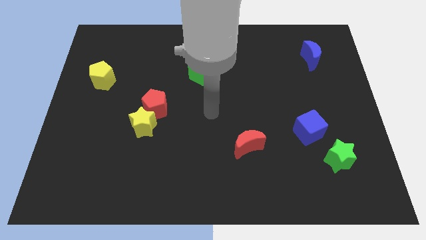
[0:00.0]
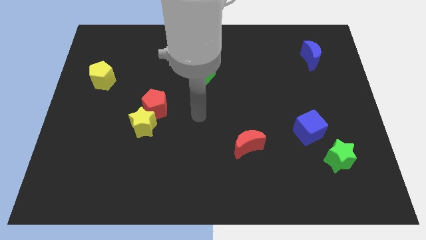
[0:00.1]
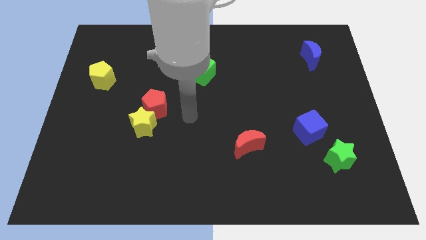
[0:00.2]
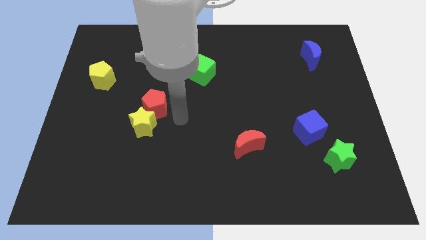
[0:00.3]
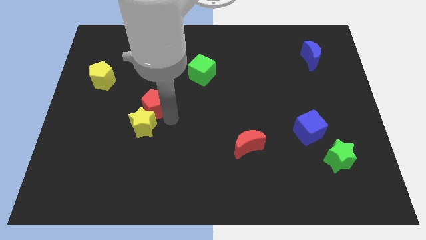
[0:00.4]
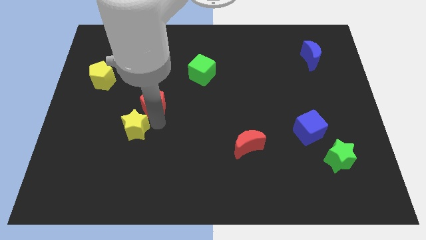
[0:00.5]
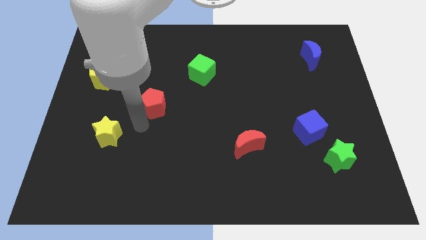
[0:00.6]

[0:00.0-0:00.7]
pull the red pentagon apart from the yellow star

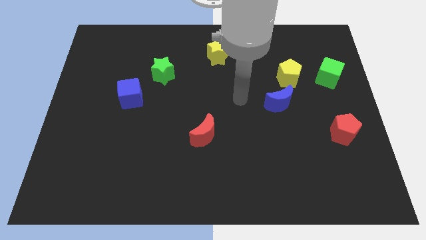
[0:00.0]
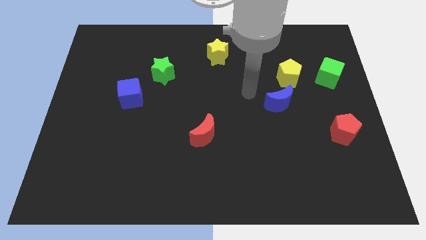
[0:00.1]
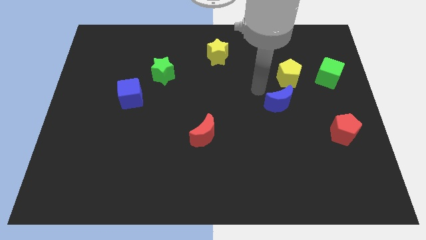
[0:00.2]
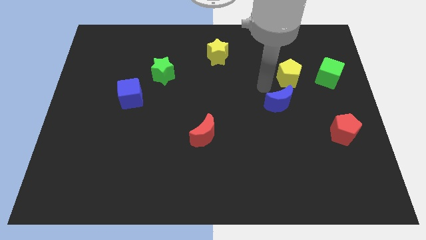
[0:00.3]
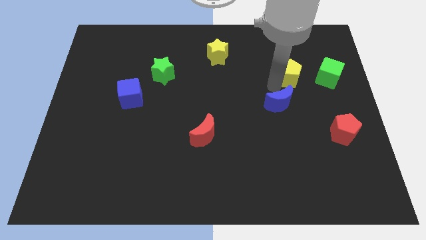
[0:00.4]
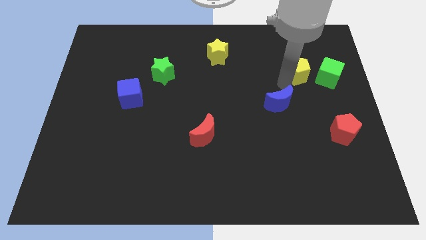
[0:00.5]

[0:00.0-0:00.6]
pull the blue moon apart from the yellow pentagon

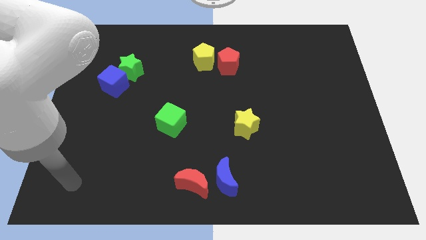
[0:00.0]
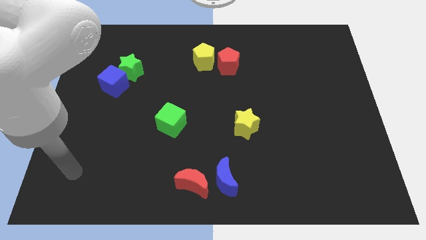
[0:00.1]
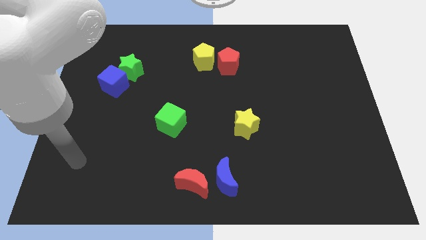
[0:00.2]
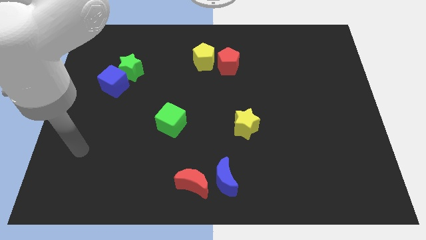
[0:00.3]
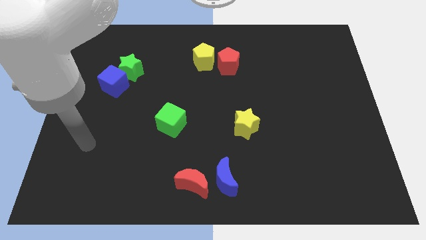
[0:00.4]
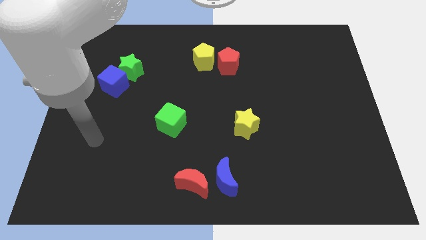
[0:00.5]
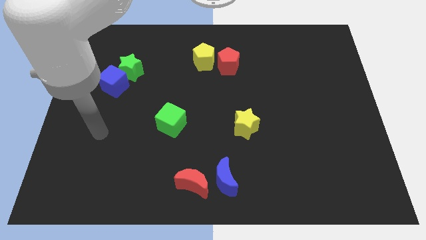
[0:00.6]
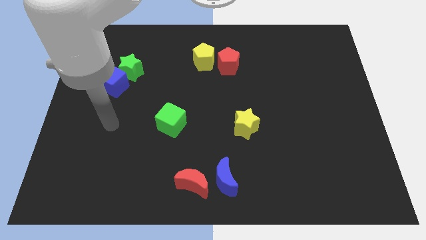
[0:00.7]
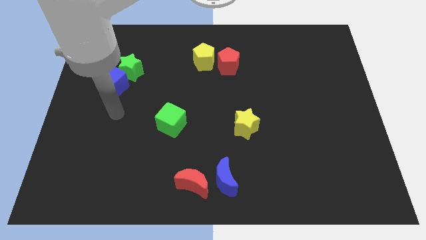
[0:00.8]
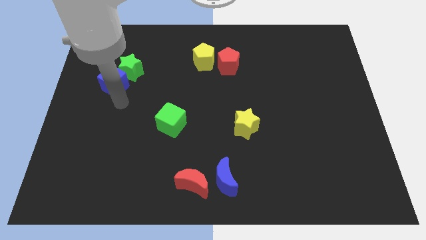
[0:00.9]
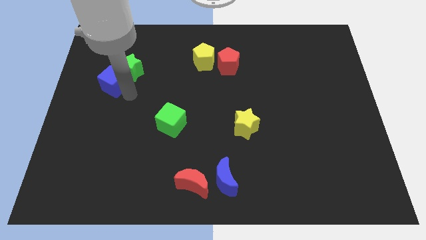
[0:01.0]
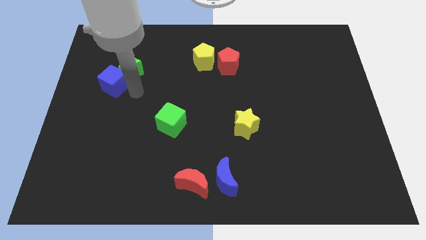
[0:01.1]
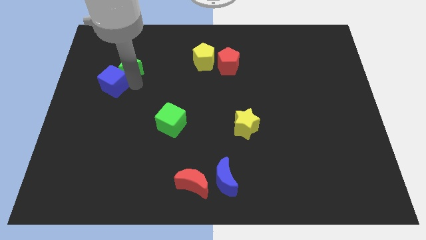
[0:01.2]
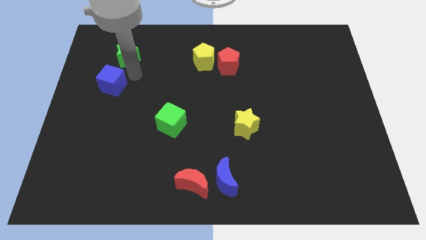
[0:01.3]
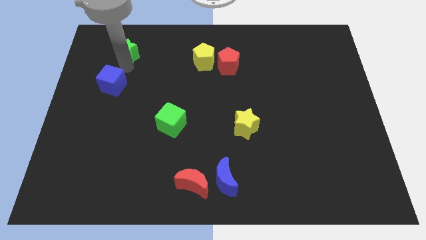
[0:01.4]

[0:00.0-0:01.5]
pull the blue cube apart from the green star

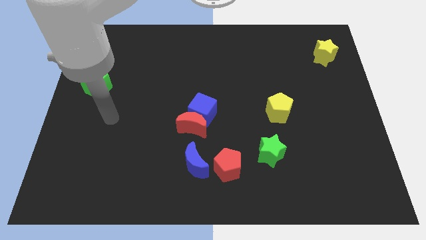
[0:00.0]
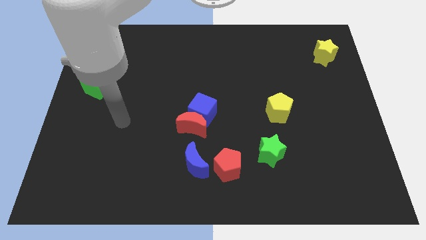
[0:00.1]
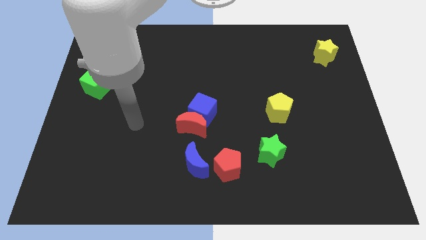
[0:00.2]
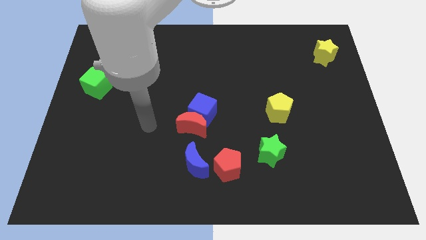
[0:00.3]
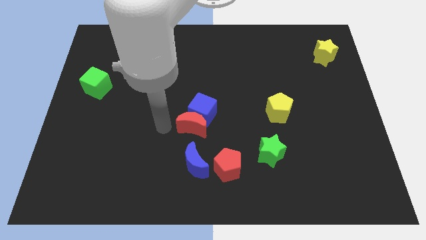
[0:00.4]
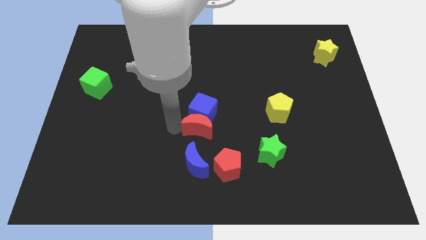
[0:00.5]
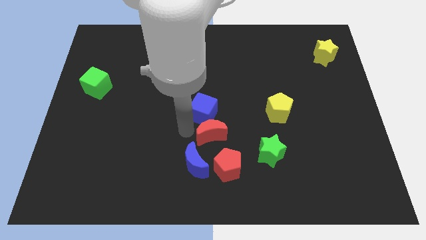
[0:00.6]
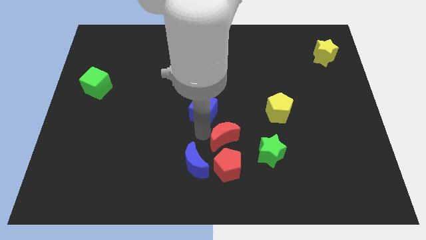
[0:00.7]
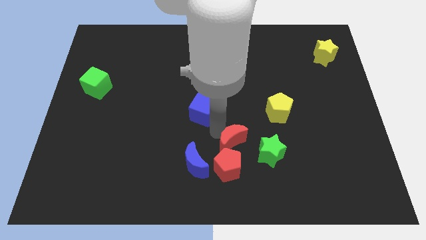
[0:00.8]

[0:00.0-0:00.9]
separate the blue cube from the red moon

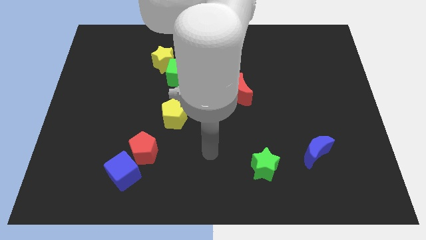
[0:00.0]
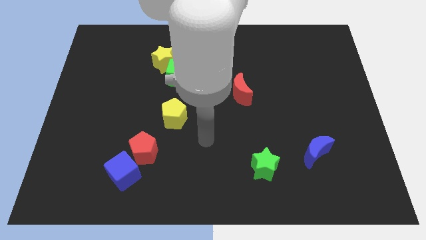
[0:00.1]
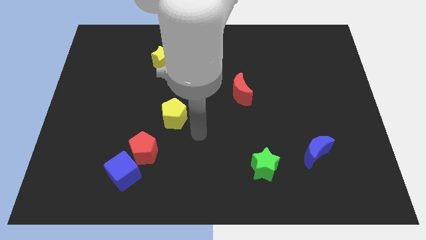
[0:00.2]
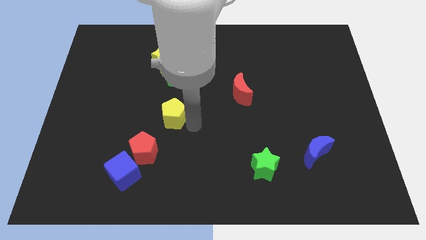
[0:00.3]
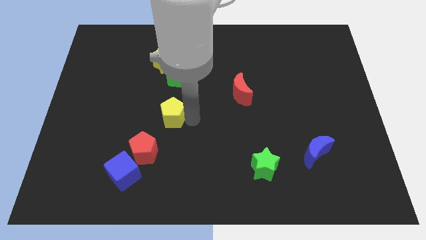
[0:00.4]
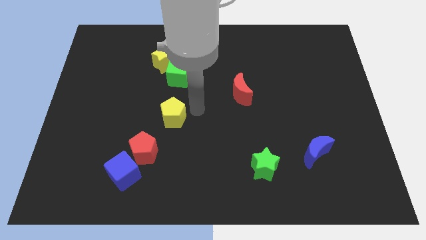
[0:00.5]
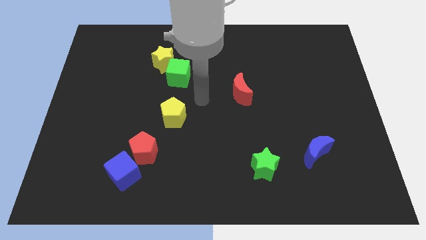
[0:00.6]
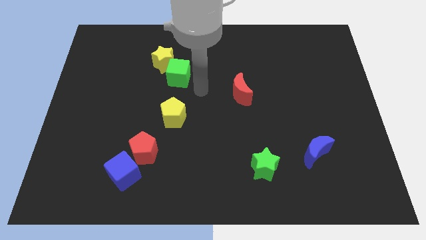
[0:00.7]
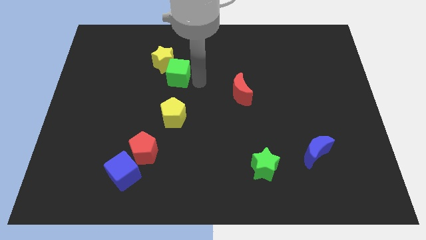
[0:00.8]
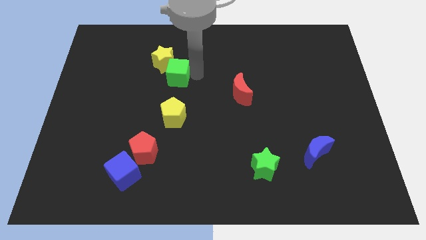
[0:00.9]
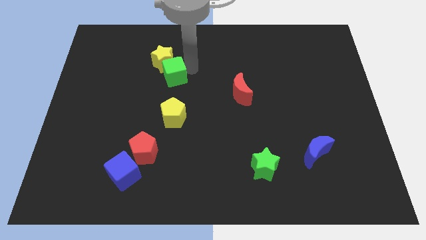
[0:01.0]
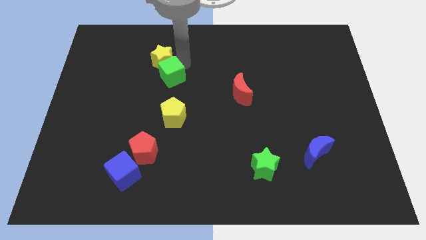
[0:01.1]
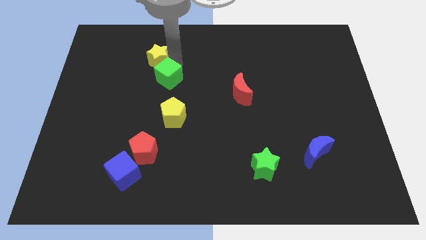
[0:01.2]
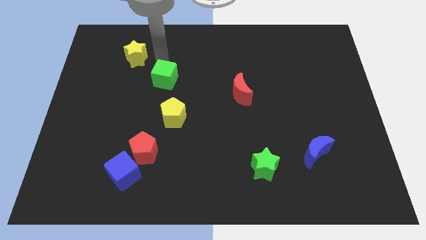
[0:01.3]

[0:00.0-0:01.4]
pull the green cube apart from the yellow star

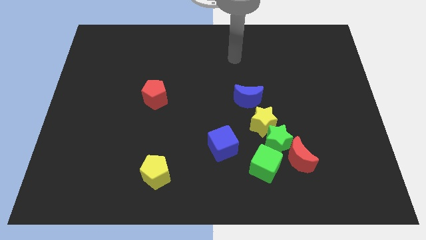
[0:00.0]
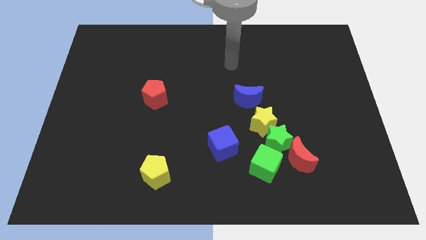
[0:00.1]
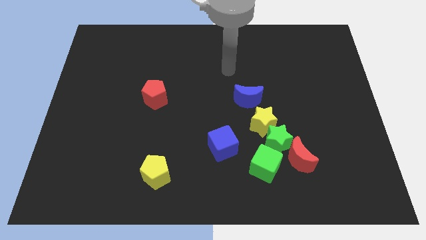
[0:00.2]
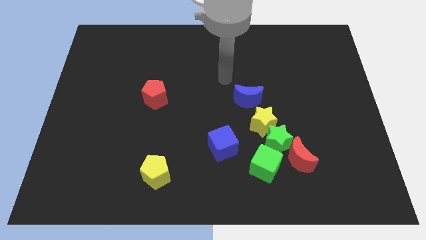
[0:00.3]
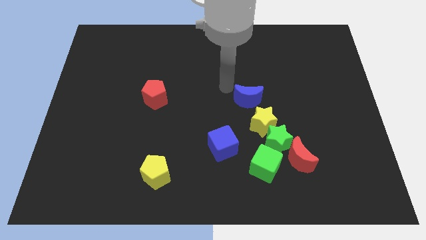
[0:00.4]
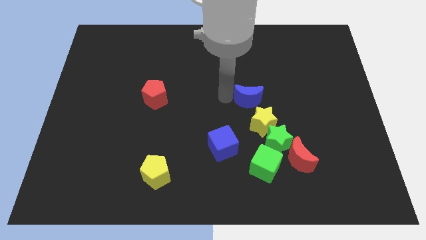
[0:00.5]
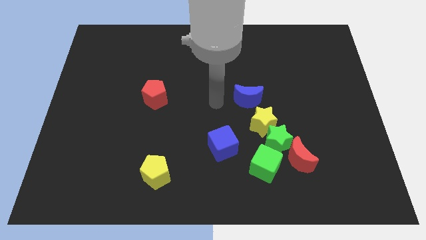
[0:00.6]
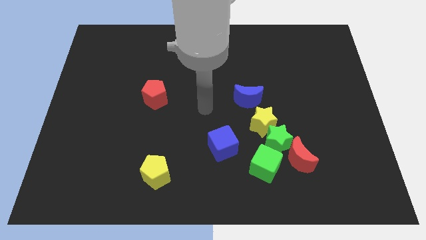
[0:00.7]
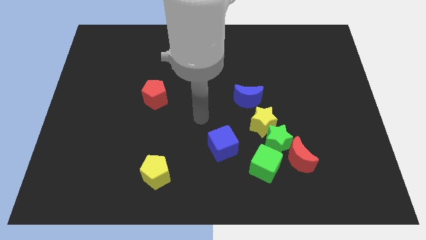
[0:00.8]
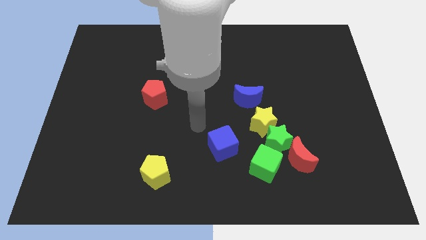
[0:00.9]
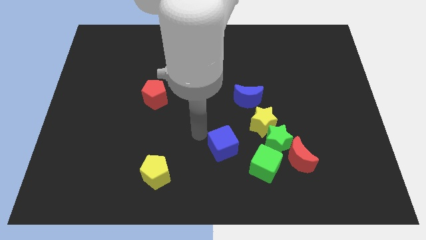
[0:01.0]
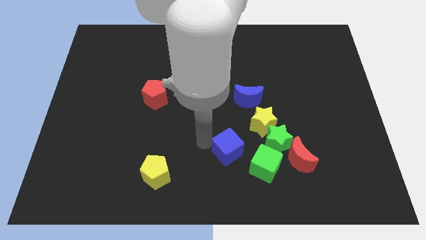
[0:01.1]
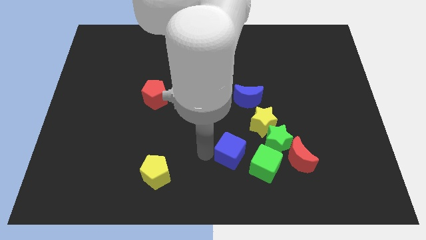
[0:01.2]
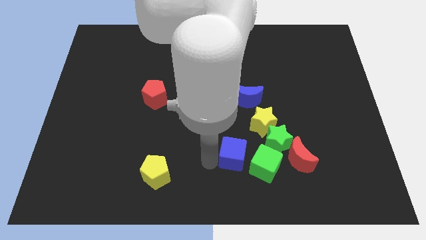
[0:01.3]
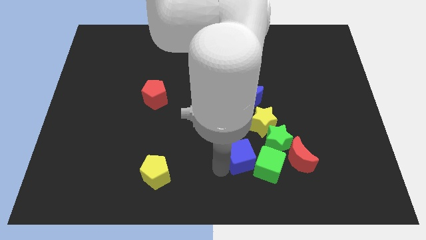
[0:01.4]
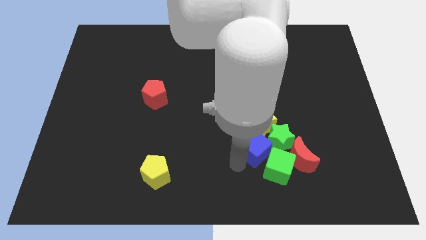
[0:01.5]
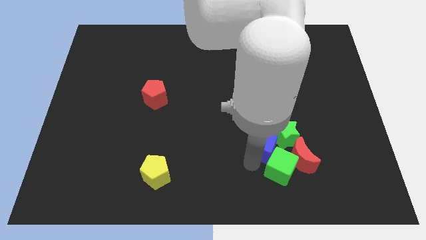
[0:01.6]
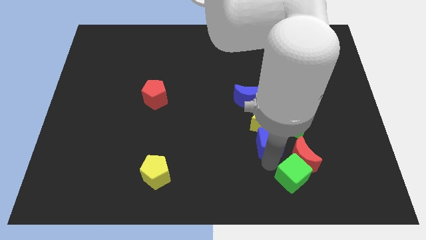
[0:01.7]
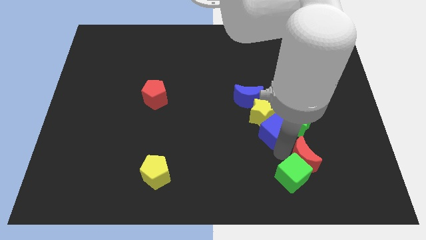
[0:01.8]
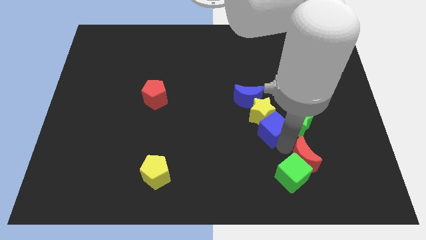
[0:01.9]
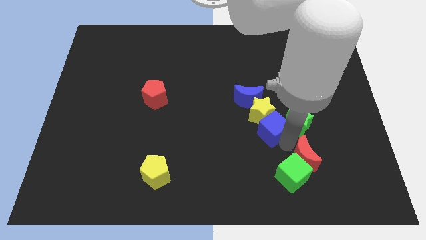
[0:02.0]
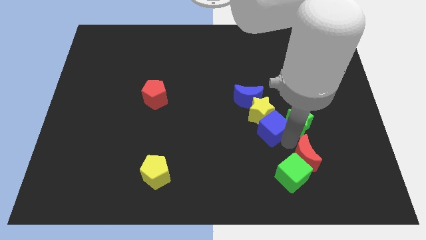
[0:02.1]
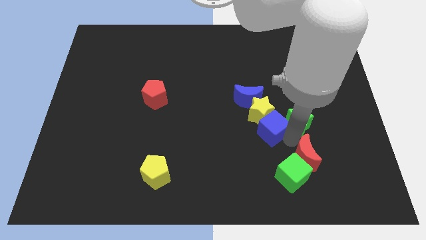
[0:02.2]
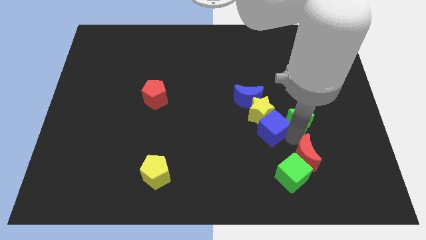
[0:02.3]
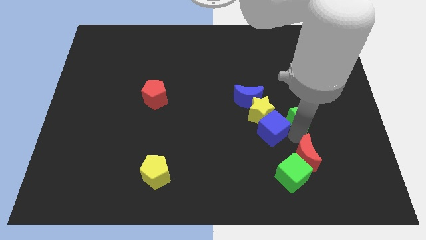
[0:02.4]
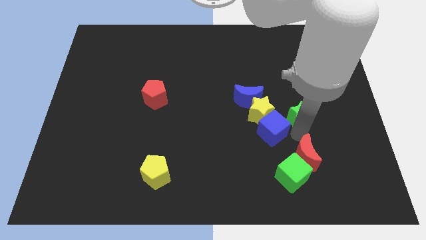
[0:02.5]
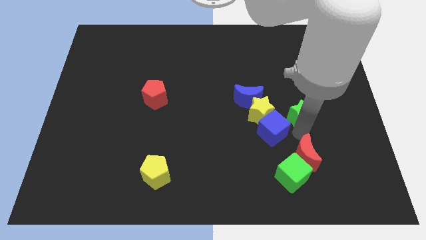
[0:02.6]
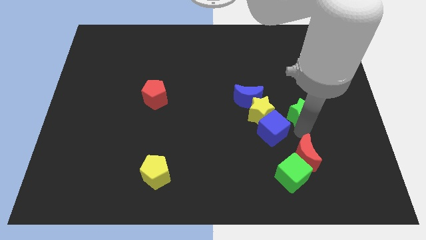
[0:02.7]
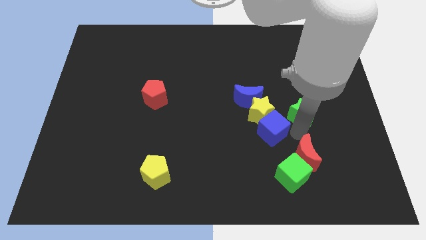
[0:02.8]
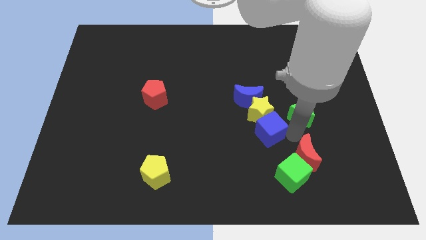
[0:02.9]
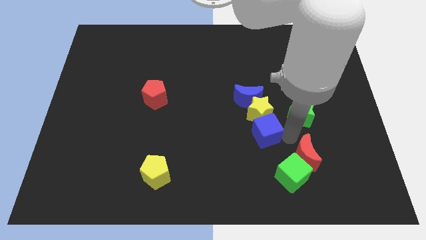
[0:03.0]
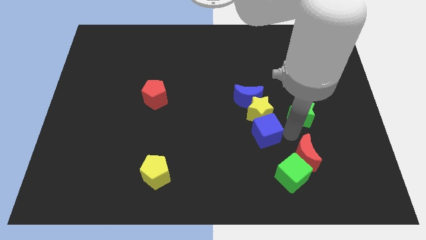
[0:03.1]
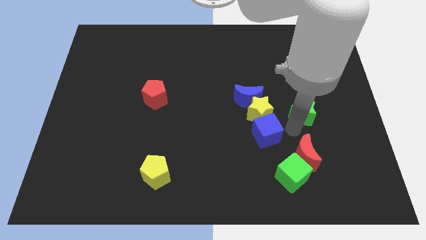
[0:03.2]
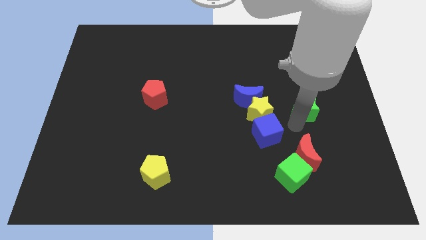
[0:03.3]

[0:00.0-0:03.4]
pull the green star apart from the clump

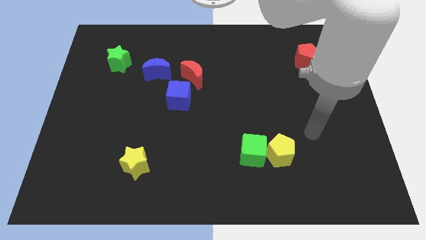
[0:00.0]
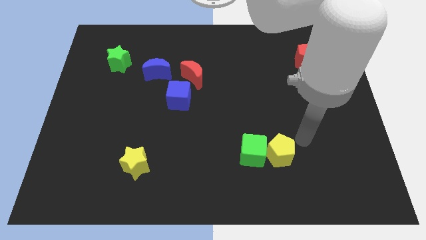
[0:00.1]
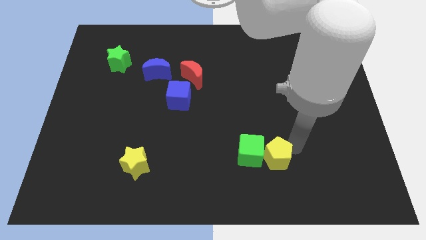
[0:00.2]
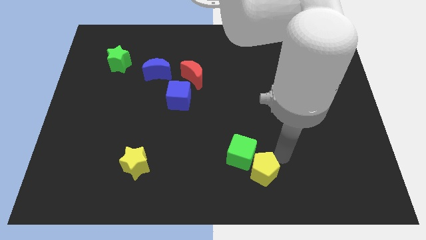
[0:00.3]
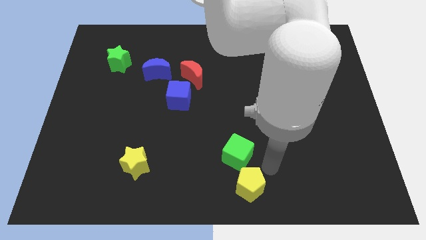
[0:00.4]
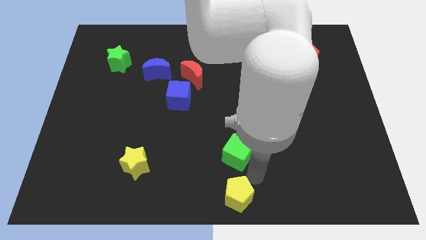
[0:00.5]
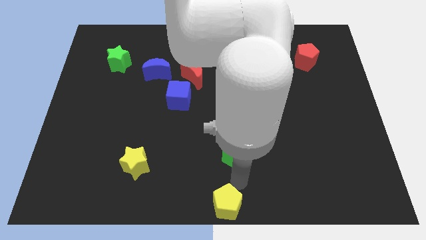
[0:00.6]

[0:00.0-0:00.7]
pull the green cube apart from the yellow pentagon

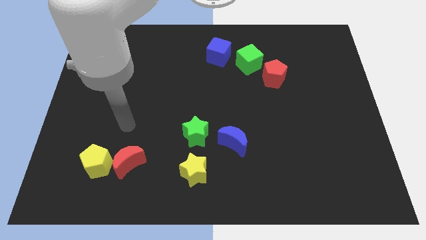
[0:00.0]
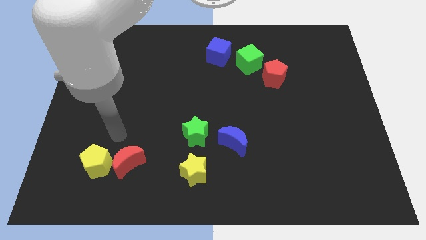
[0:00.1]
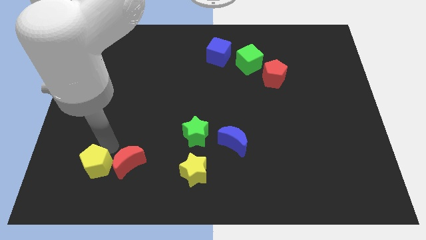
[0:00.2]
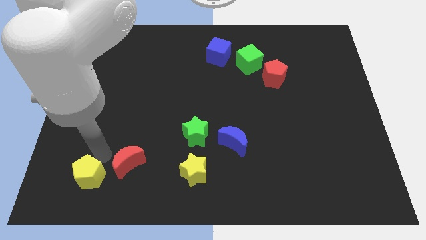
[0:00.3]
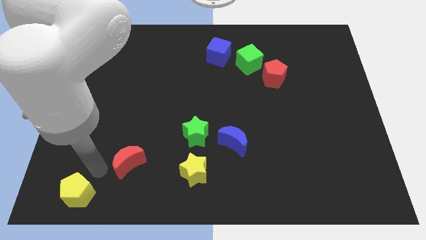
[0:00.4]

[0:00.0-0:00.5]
move the red moon away from the yellow pentagon
